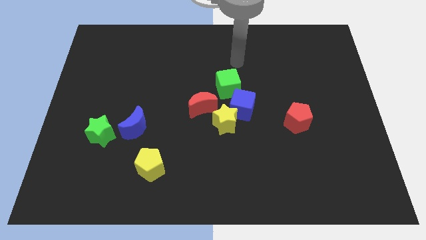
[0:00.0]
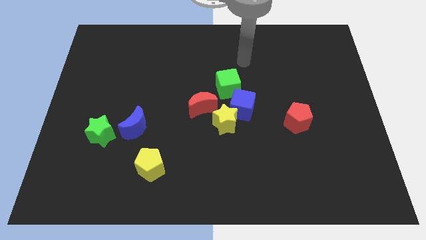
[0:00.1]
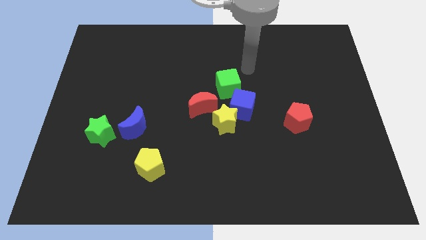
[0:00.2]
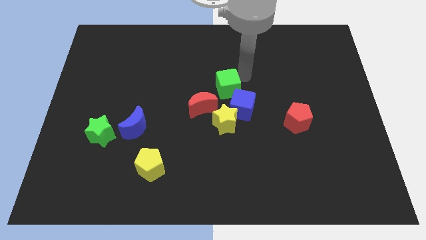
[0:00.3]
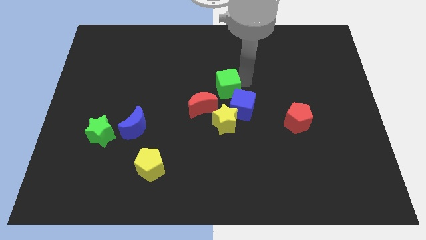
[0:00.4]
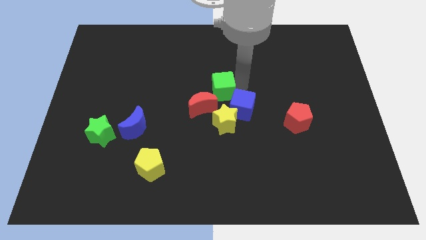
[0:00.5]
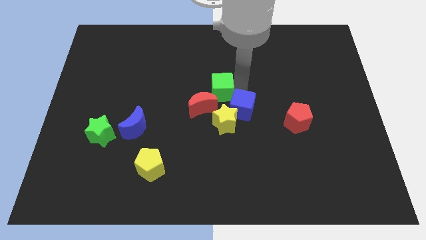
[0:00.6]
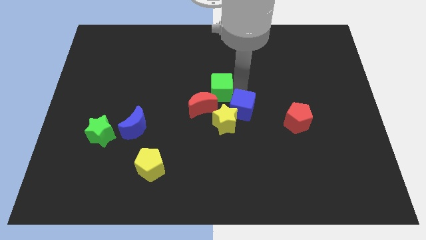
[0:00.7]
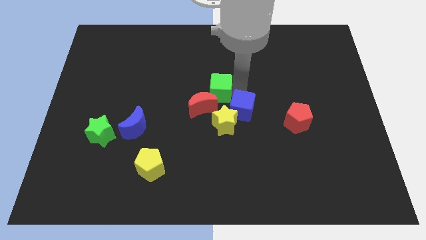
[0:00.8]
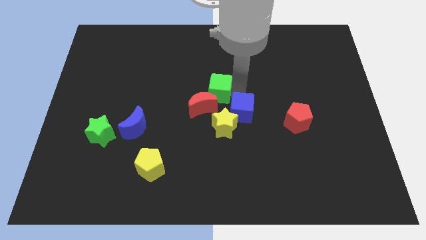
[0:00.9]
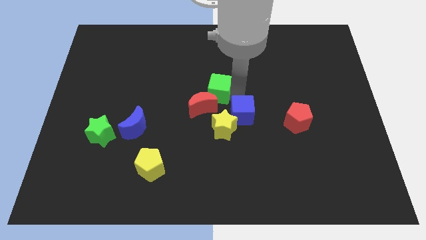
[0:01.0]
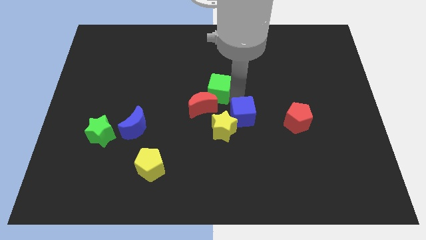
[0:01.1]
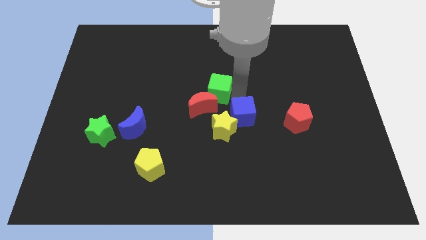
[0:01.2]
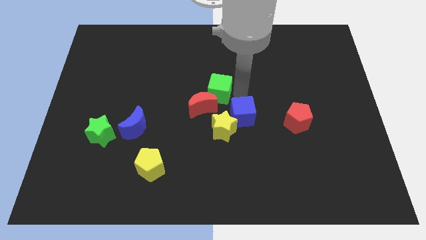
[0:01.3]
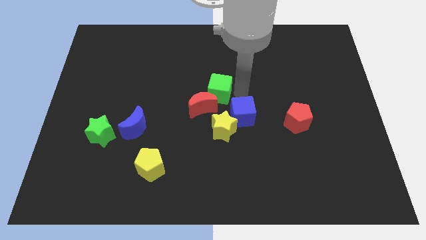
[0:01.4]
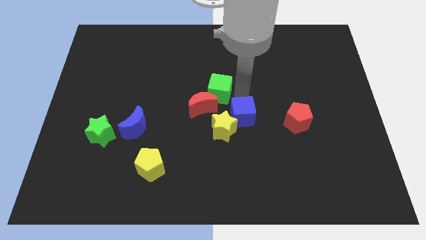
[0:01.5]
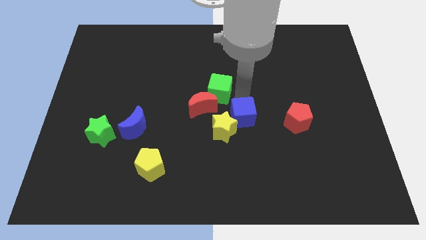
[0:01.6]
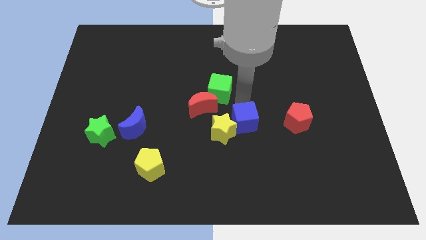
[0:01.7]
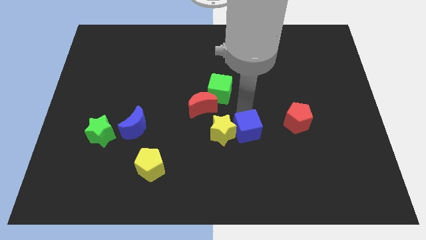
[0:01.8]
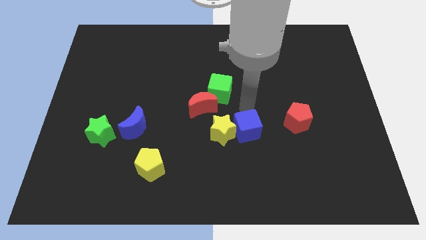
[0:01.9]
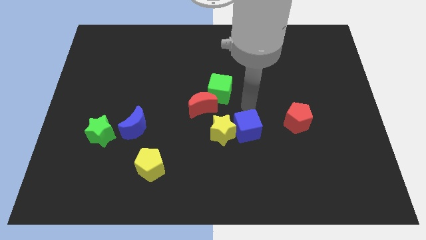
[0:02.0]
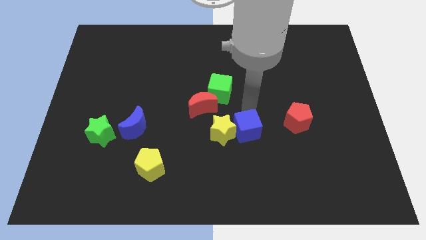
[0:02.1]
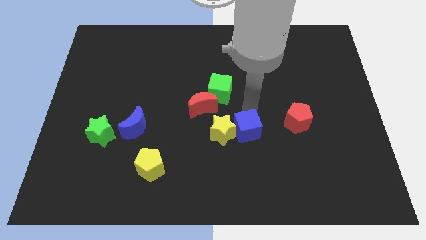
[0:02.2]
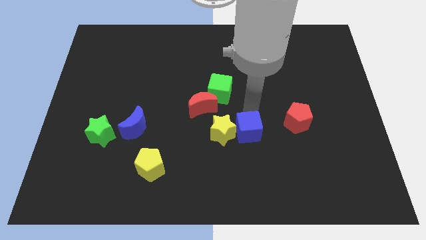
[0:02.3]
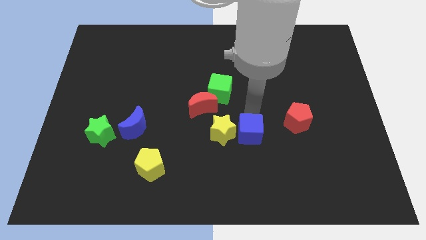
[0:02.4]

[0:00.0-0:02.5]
push the blue cube a little bit down

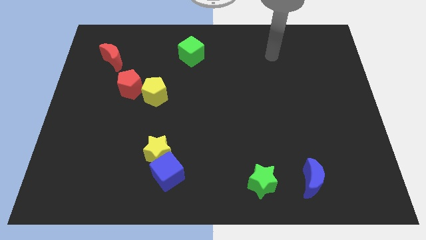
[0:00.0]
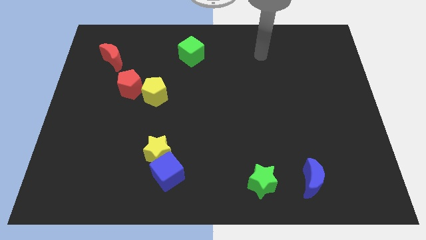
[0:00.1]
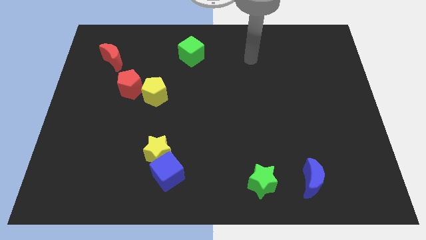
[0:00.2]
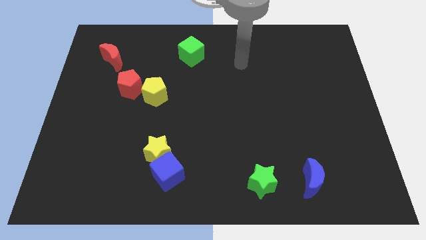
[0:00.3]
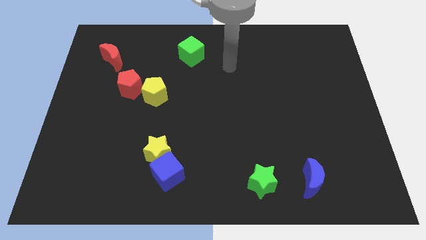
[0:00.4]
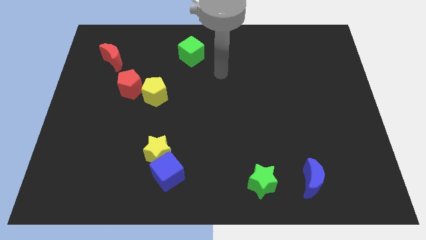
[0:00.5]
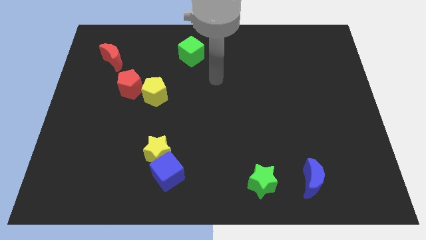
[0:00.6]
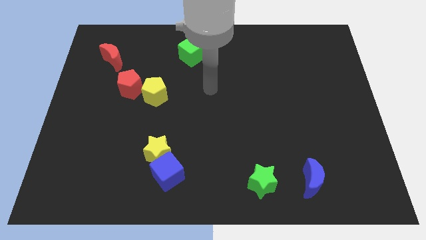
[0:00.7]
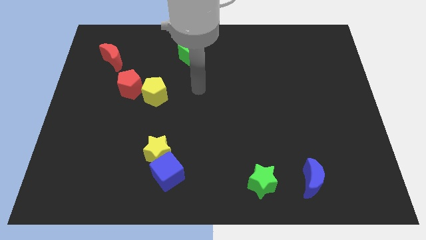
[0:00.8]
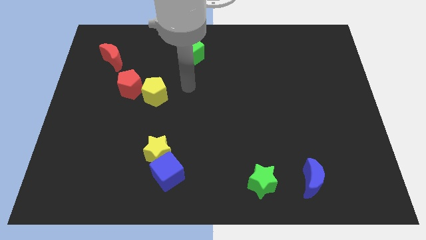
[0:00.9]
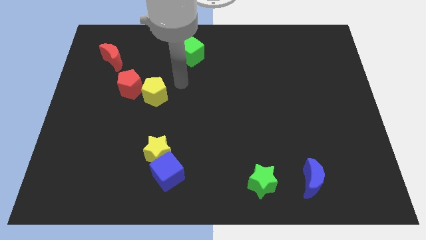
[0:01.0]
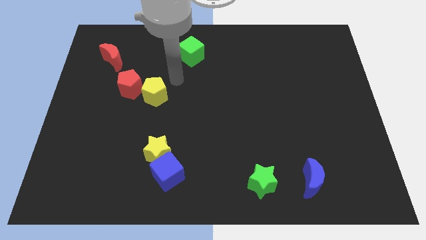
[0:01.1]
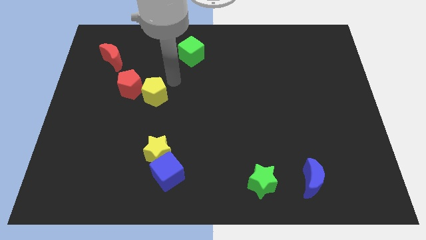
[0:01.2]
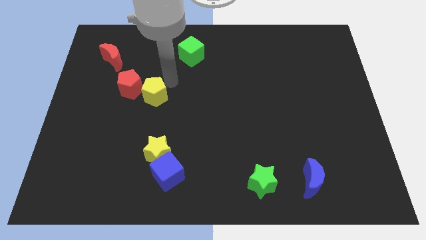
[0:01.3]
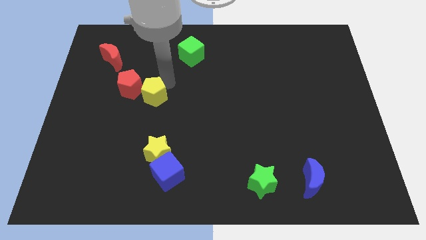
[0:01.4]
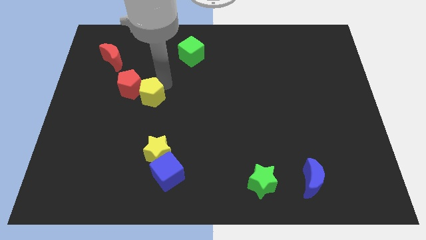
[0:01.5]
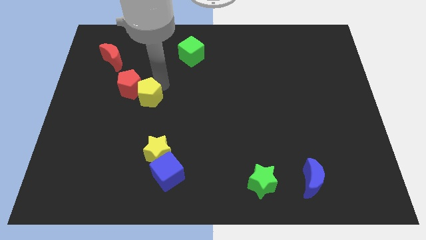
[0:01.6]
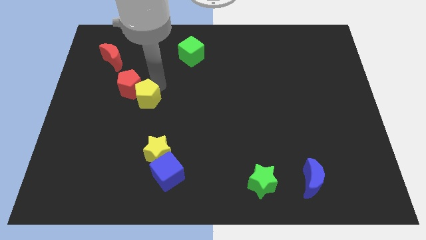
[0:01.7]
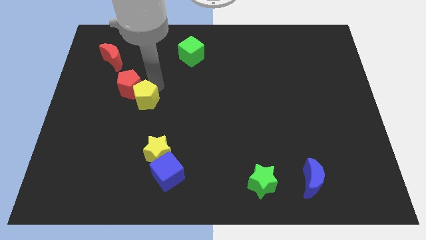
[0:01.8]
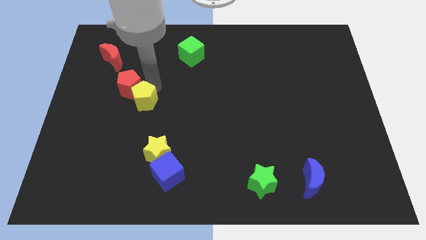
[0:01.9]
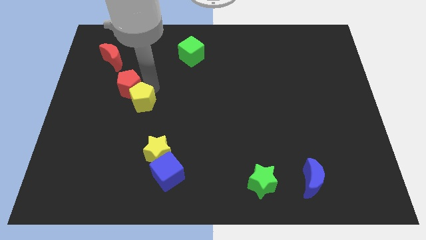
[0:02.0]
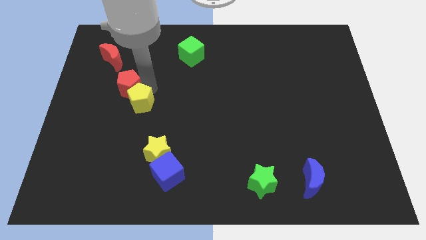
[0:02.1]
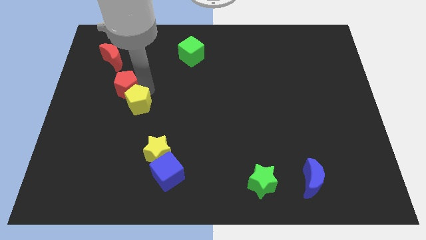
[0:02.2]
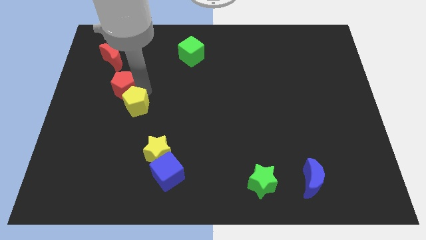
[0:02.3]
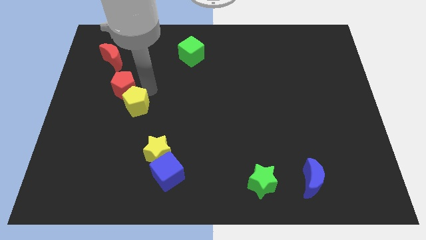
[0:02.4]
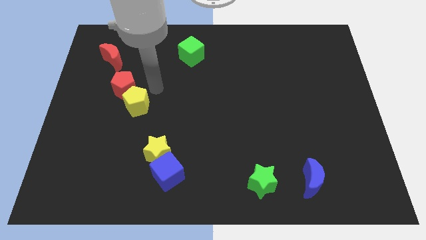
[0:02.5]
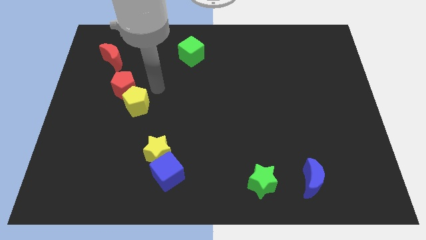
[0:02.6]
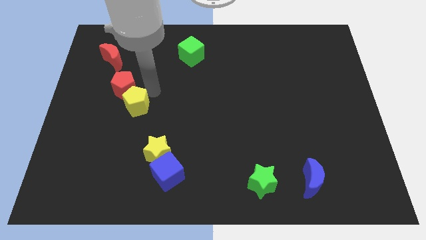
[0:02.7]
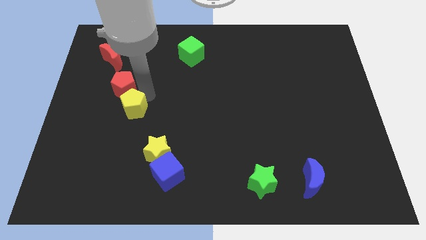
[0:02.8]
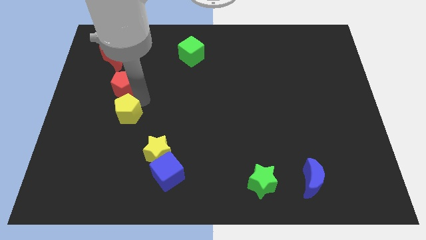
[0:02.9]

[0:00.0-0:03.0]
slightly move the yellow pentagon down and then to the left

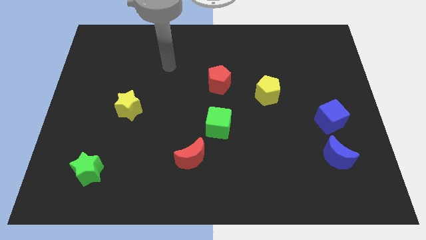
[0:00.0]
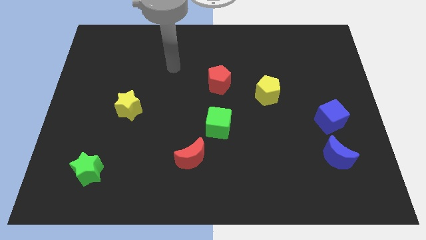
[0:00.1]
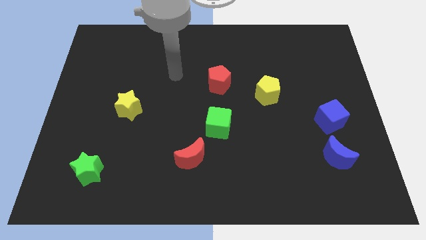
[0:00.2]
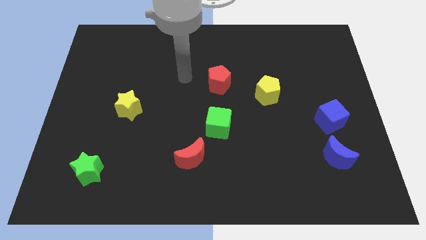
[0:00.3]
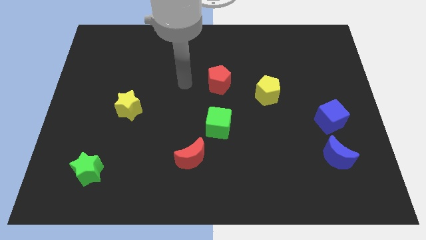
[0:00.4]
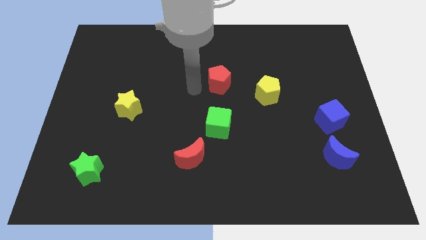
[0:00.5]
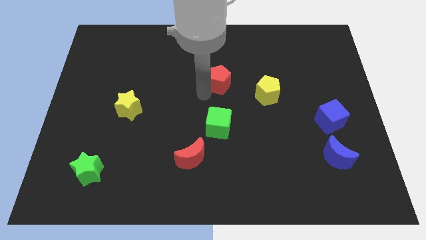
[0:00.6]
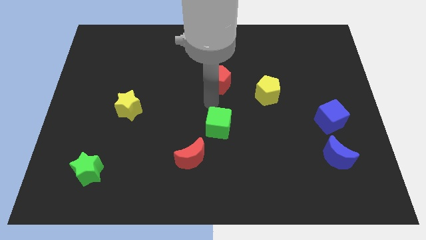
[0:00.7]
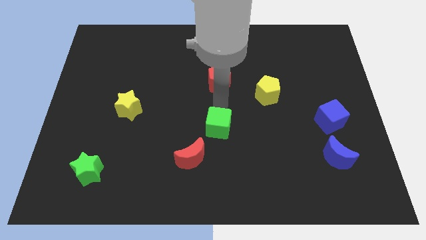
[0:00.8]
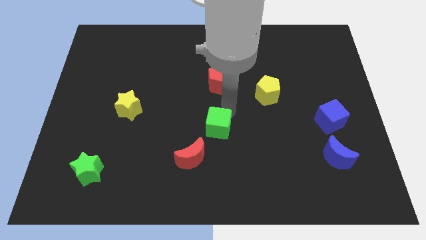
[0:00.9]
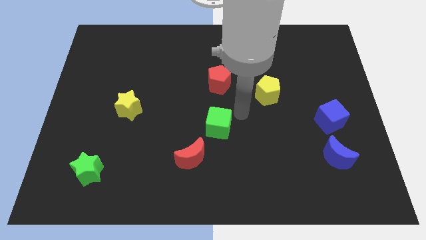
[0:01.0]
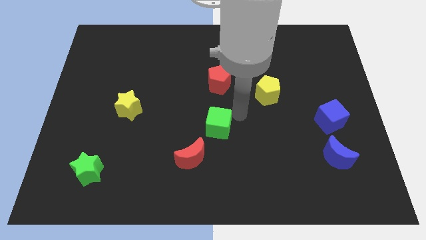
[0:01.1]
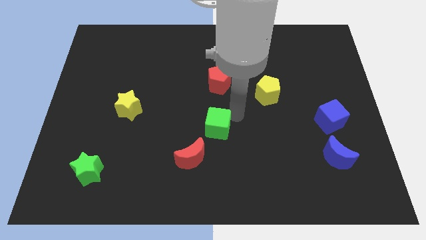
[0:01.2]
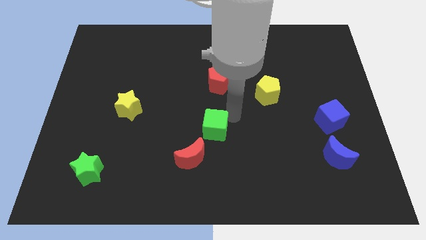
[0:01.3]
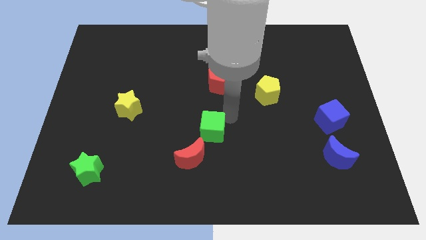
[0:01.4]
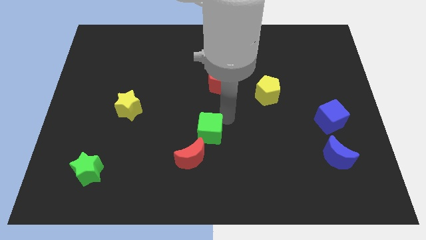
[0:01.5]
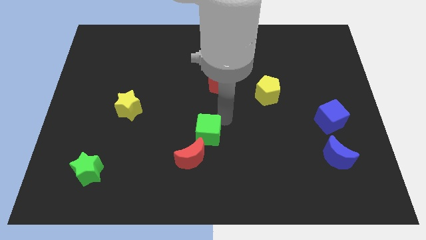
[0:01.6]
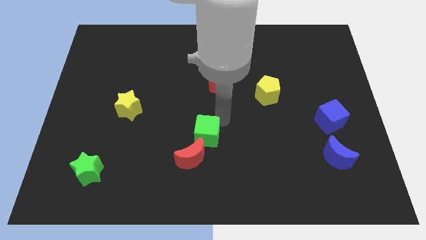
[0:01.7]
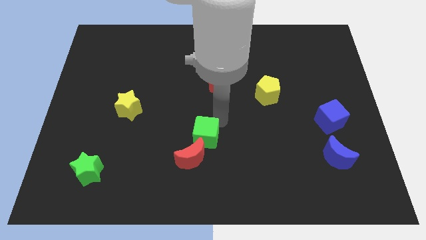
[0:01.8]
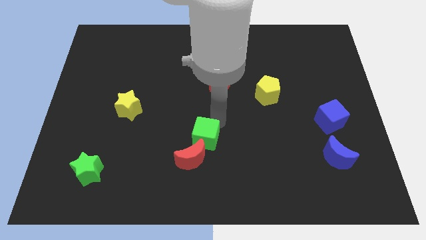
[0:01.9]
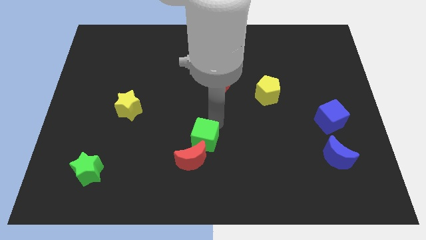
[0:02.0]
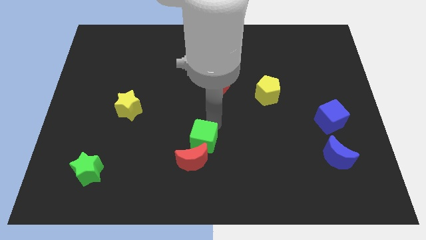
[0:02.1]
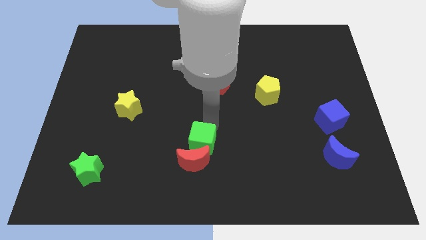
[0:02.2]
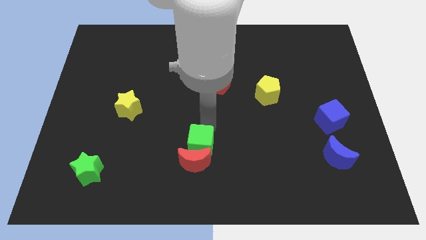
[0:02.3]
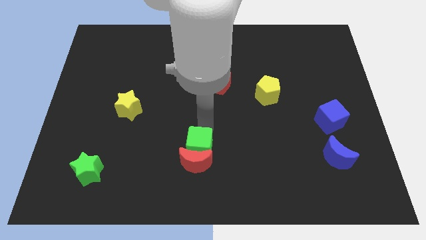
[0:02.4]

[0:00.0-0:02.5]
slide the green cube downwards and then to the left a little bit
